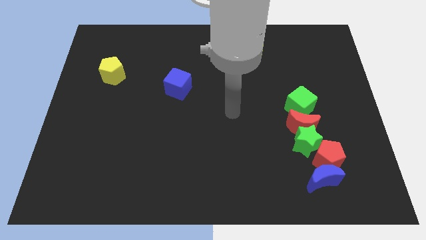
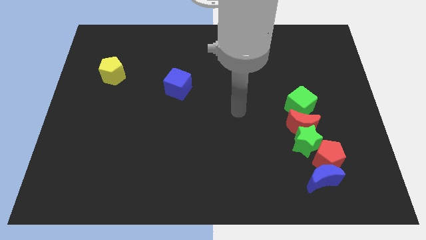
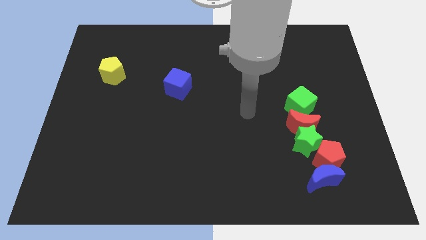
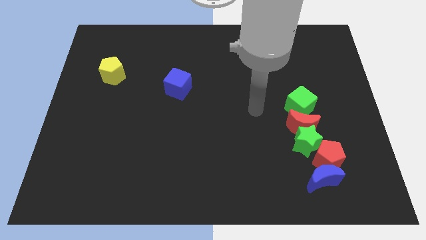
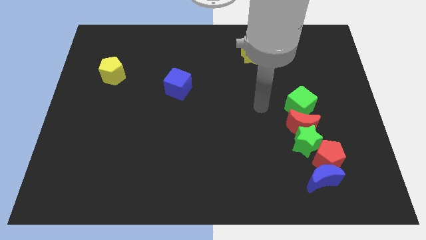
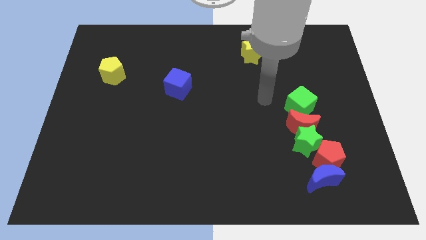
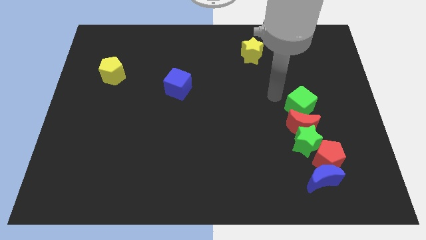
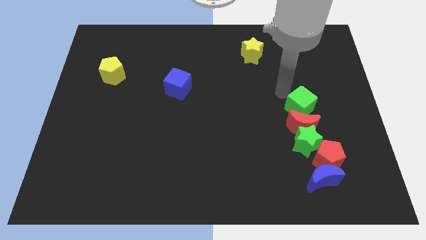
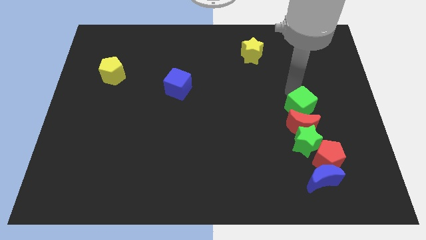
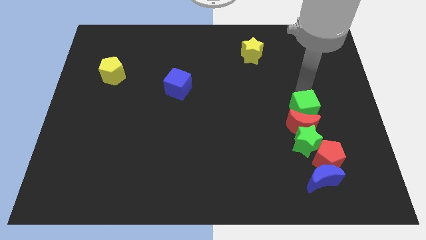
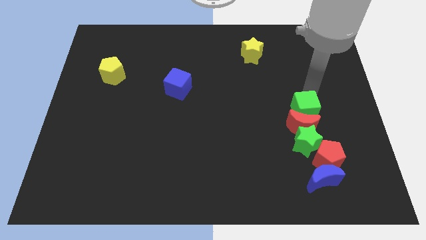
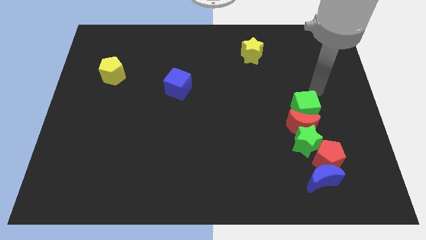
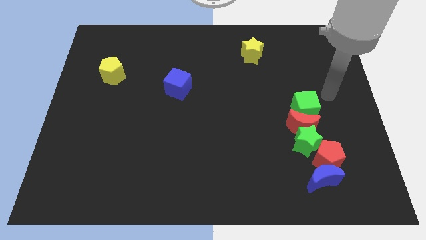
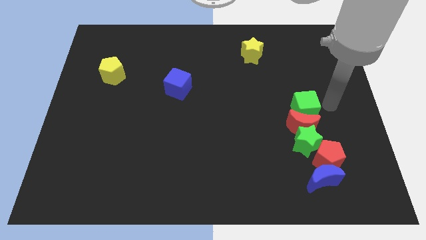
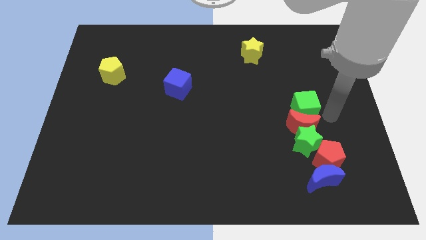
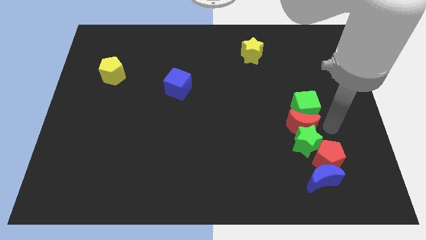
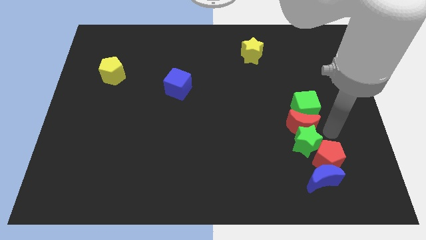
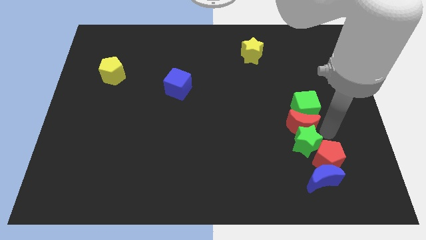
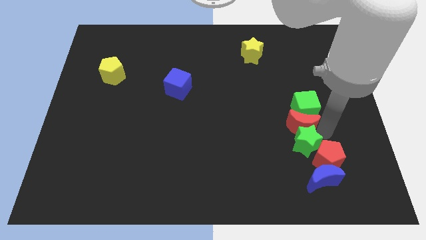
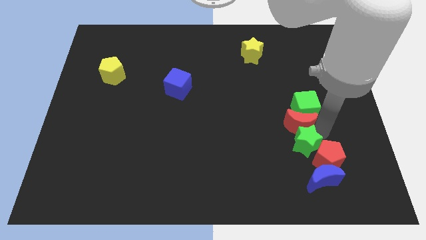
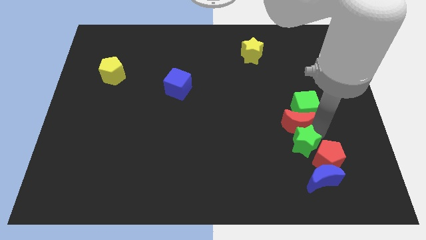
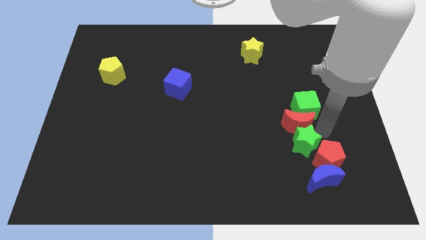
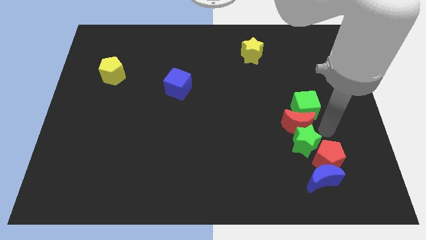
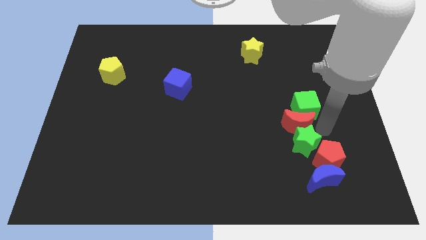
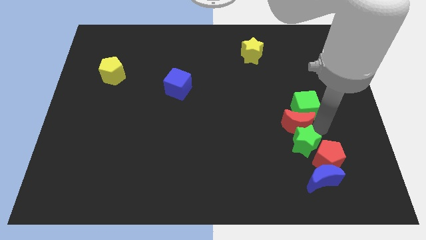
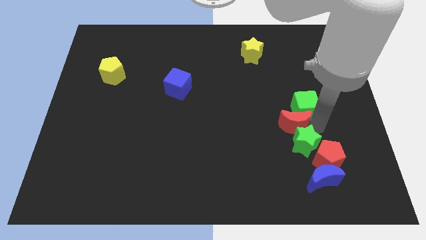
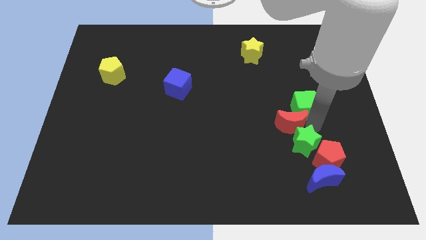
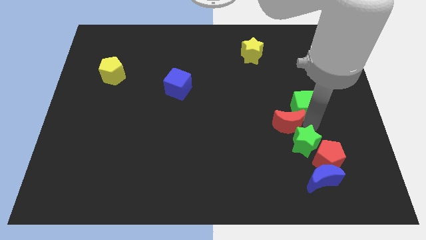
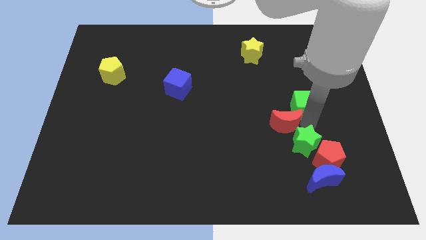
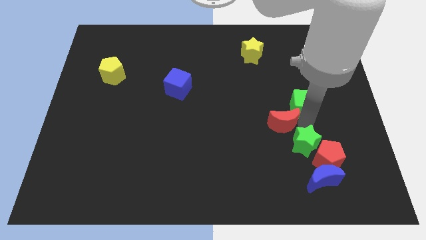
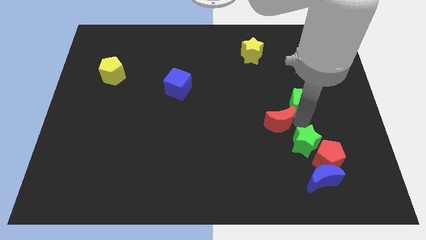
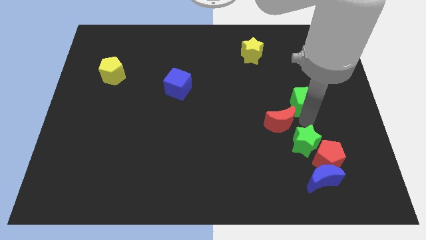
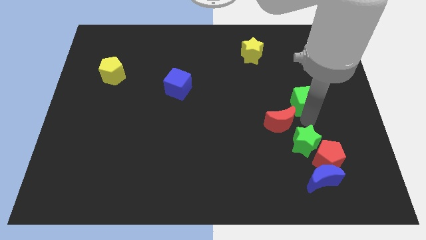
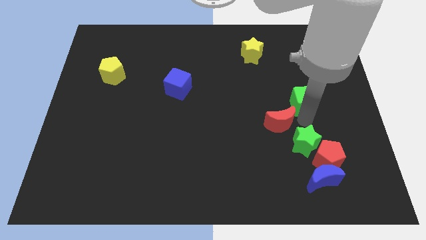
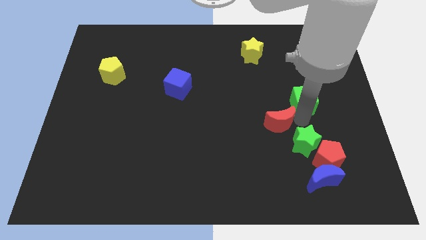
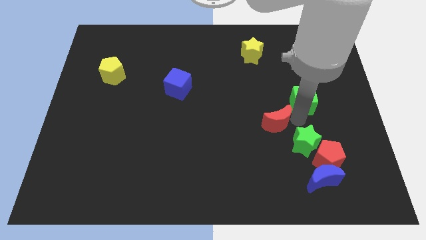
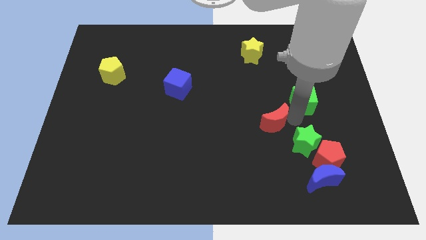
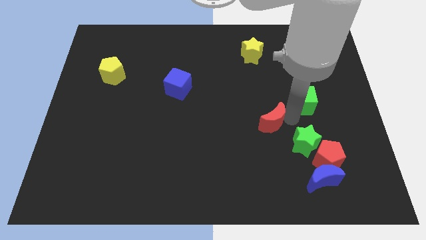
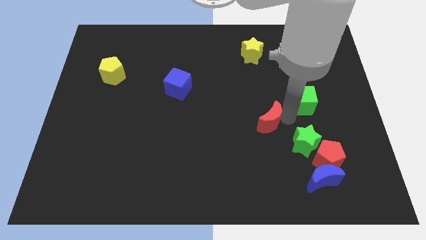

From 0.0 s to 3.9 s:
push the red moon left a little

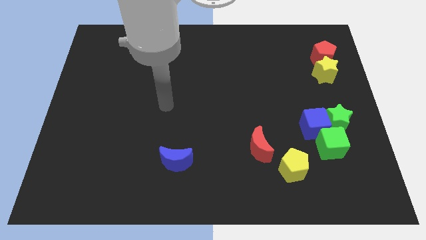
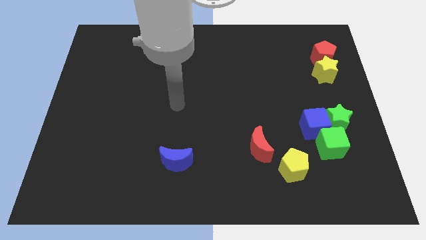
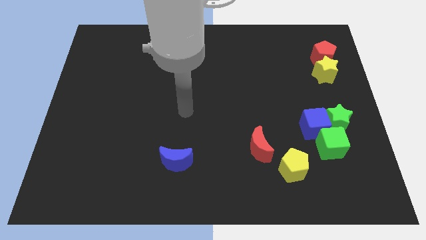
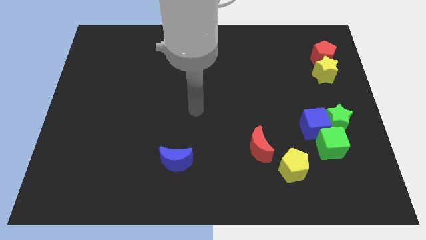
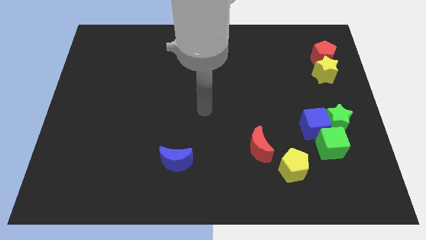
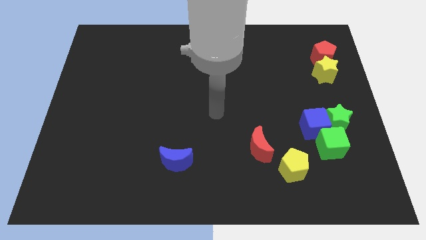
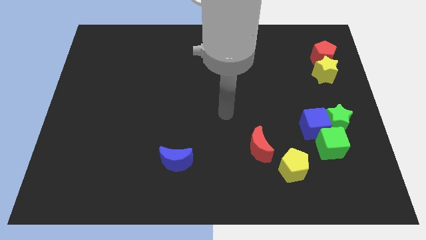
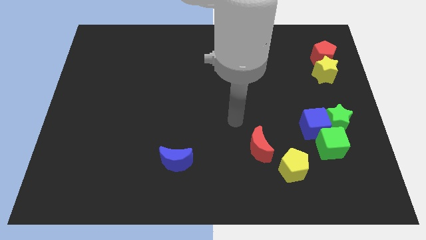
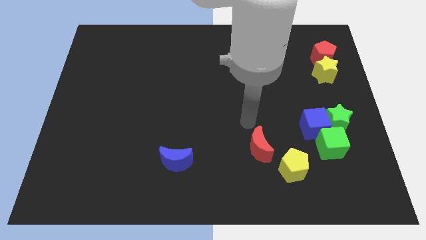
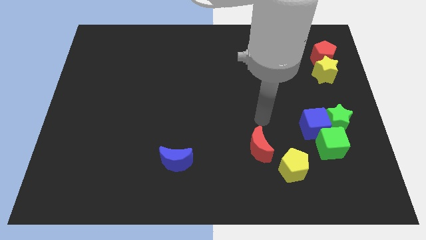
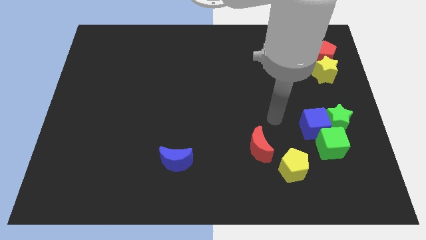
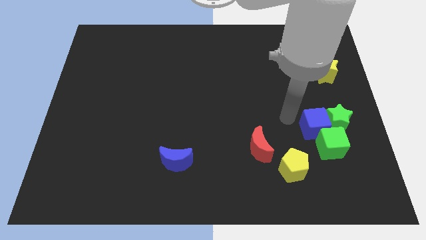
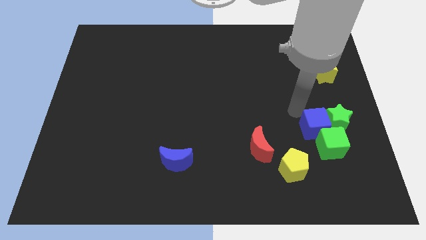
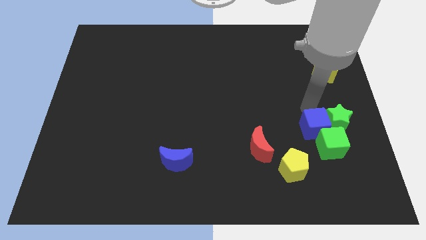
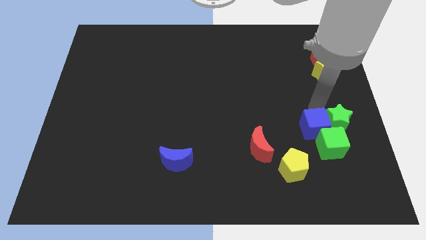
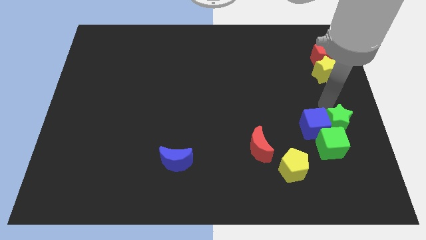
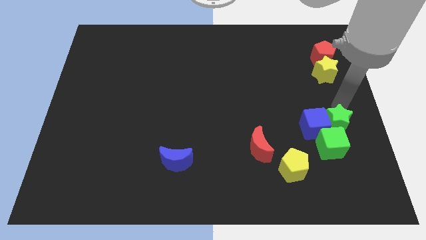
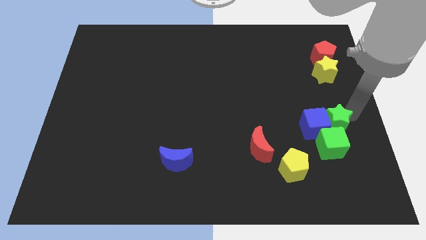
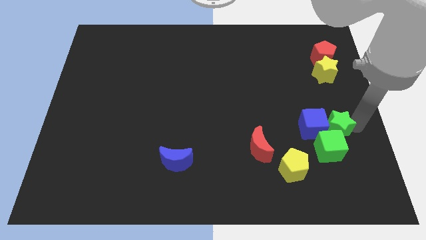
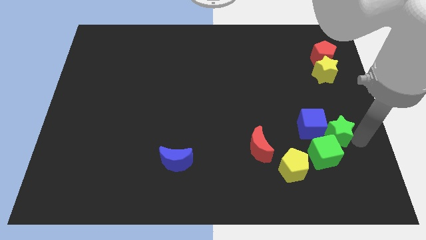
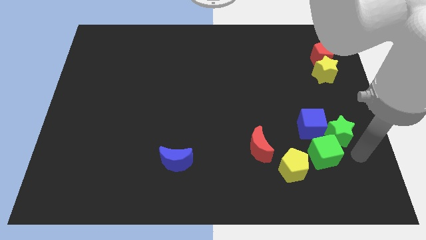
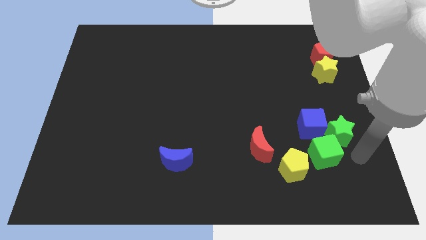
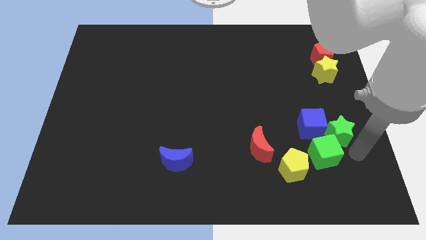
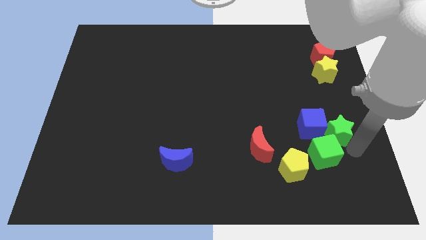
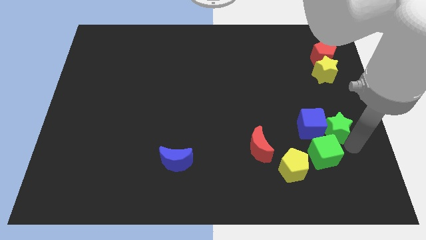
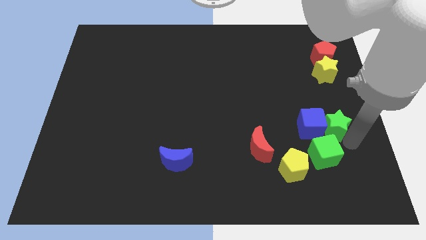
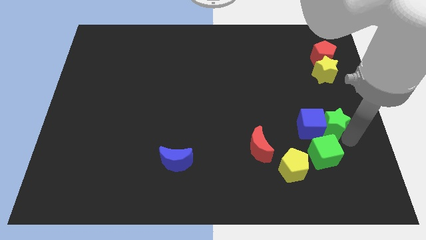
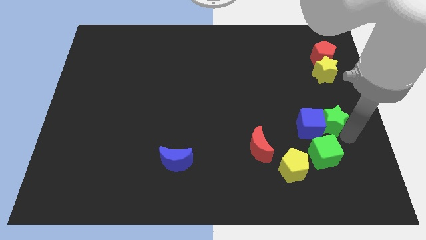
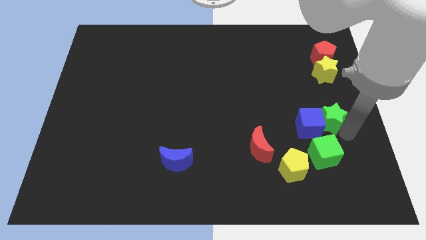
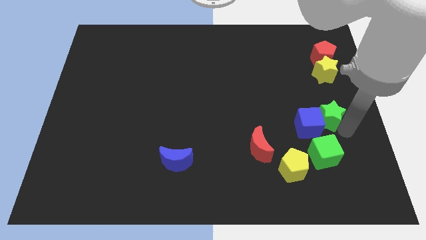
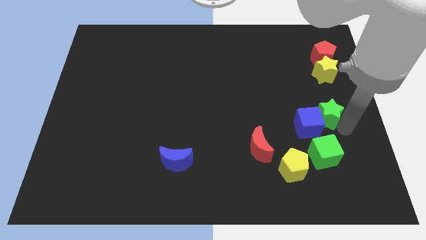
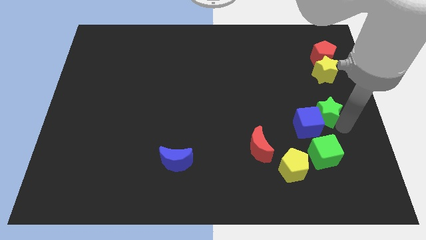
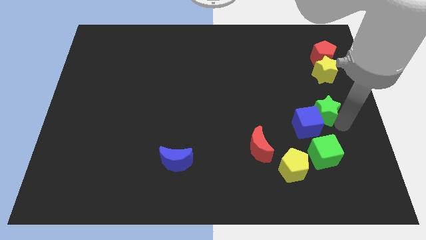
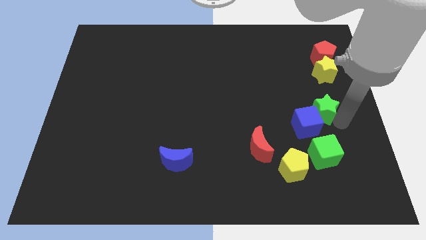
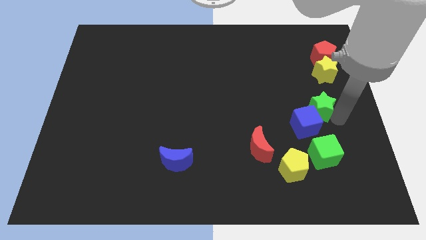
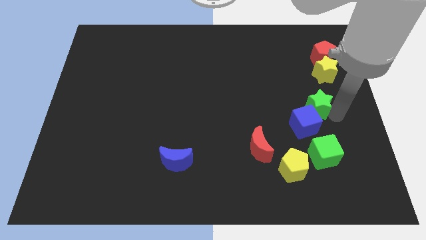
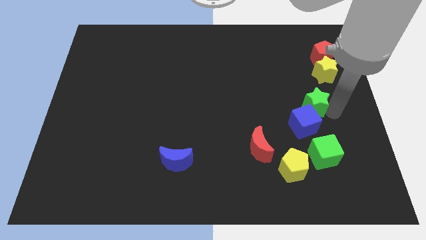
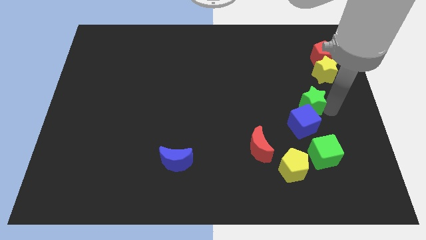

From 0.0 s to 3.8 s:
slightly push the green star up and then left

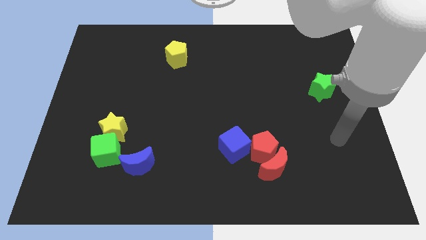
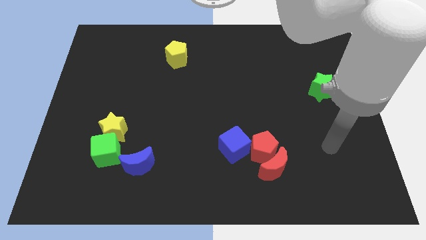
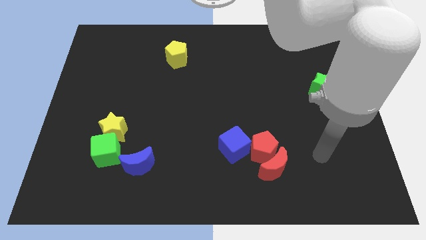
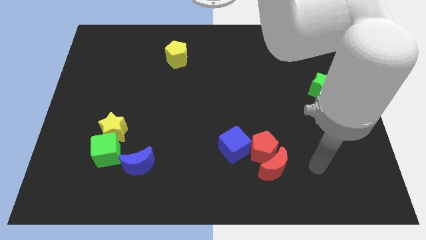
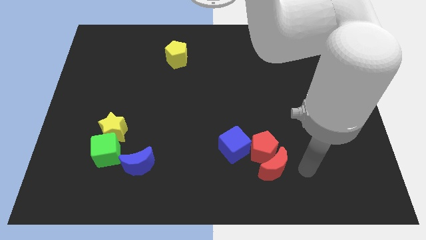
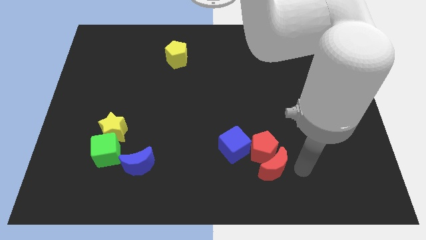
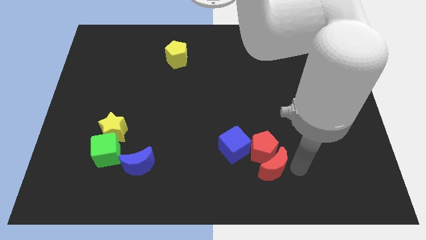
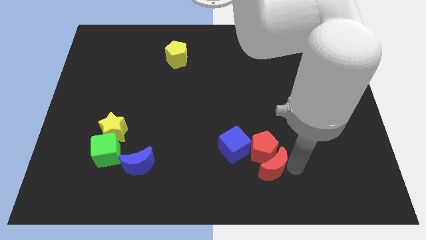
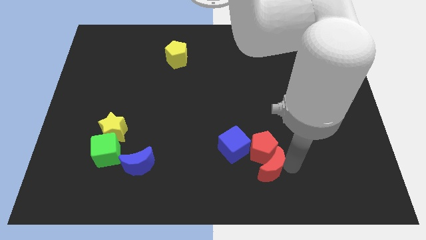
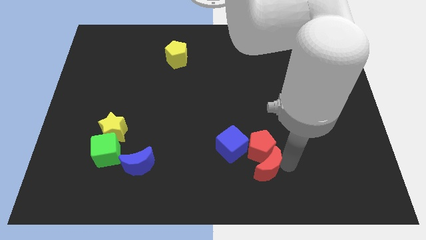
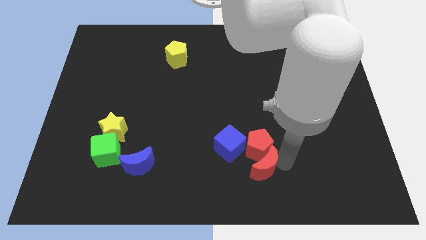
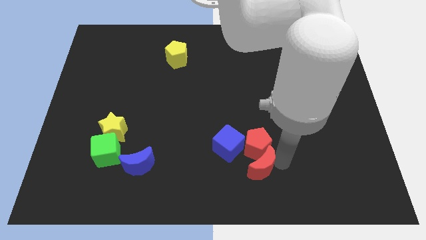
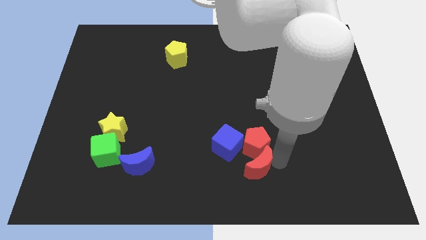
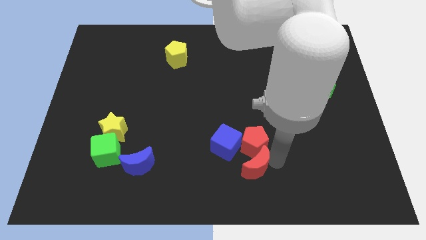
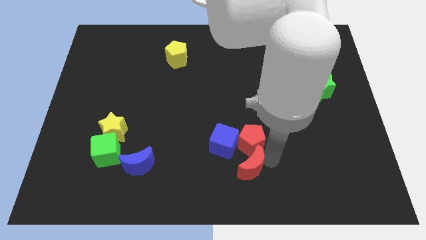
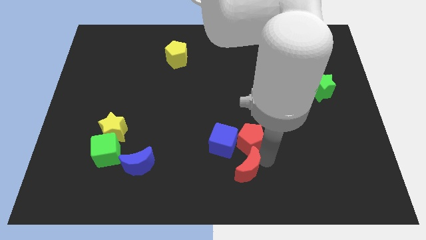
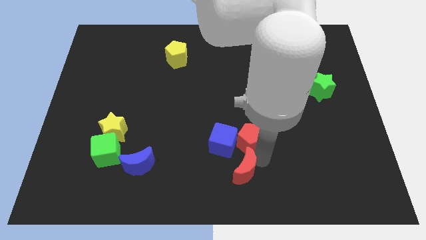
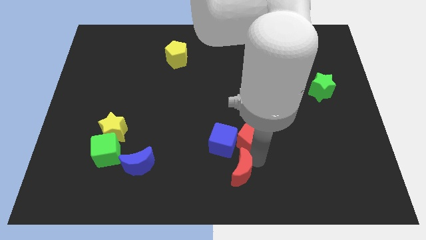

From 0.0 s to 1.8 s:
slightly push the red moon left
